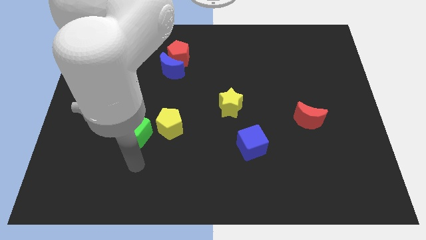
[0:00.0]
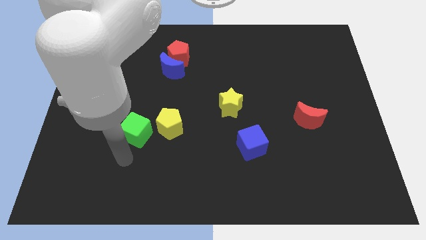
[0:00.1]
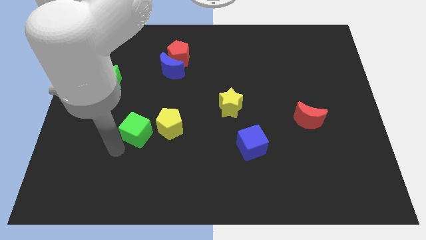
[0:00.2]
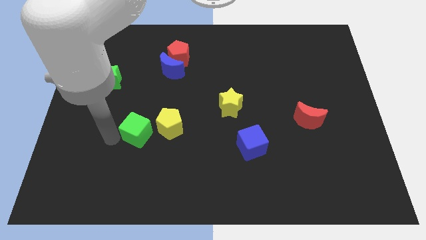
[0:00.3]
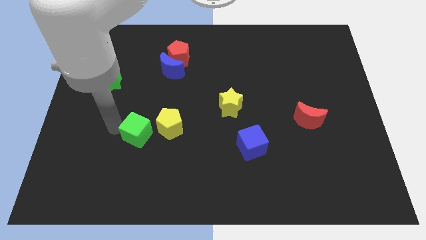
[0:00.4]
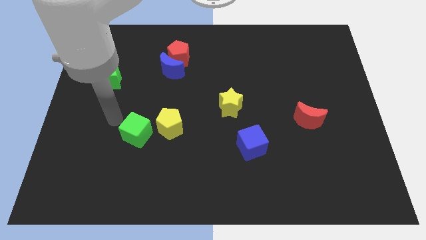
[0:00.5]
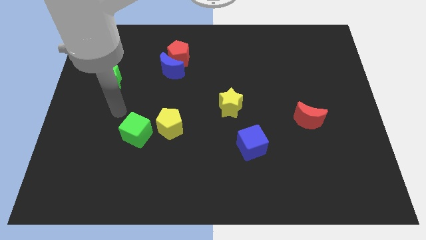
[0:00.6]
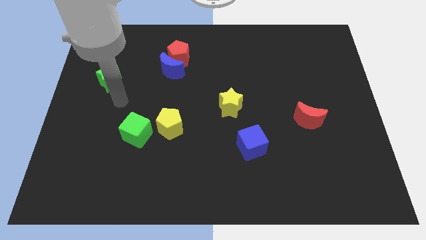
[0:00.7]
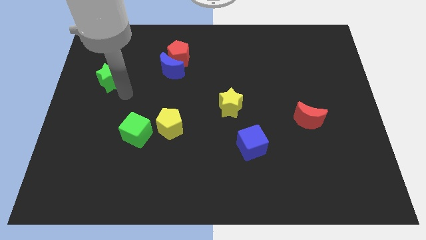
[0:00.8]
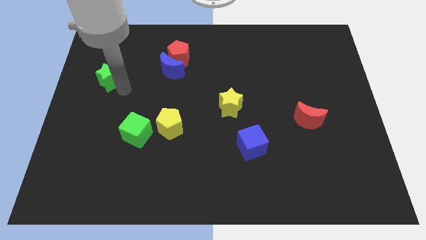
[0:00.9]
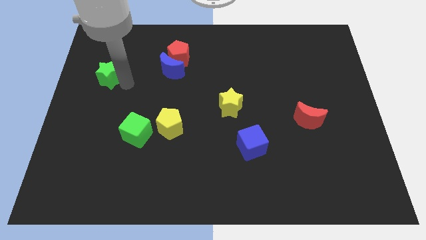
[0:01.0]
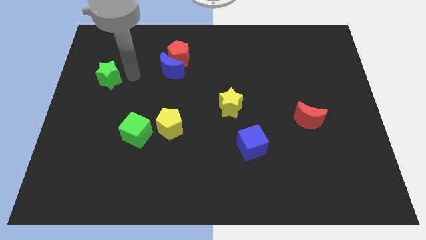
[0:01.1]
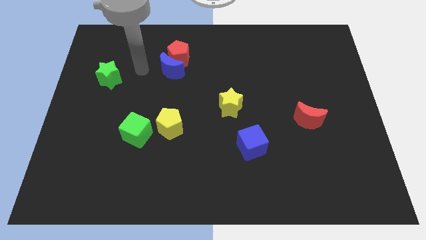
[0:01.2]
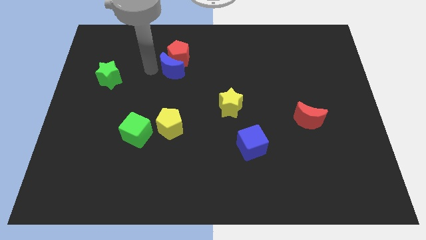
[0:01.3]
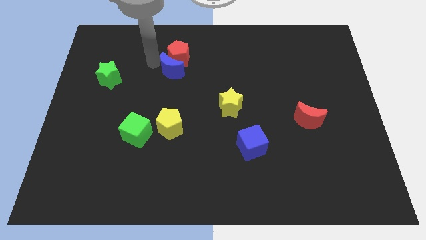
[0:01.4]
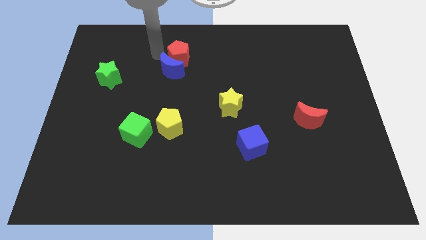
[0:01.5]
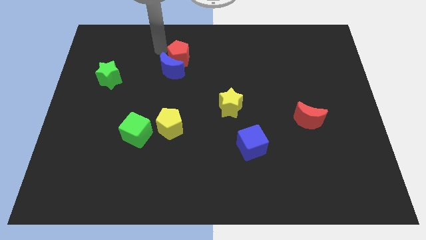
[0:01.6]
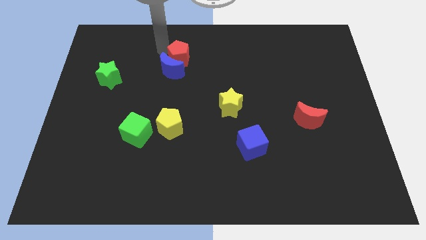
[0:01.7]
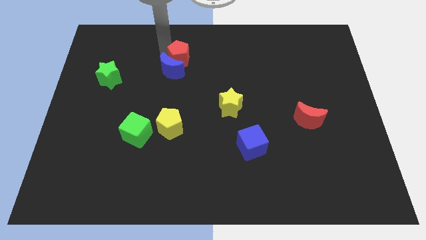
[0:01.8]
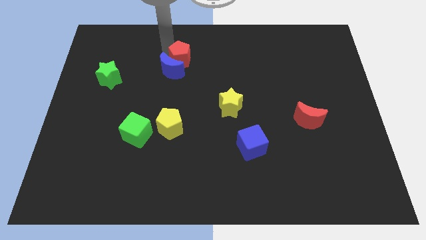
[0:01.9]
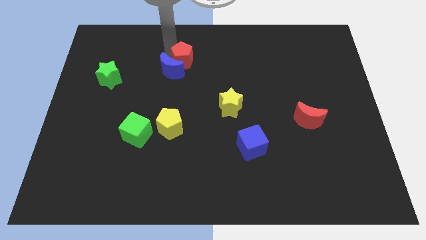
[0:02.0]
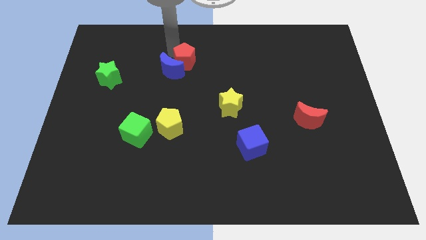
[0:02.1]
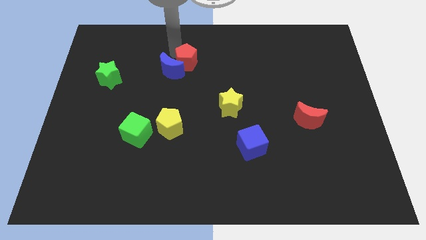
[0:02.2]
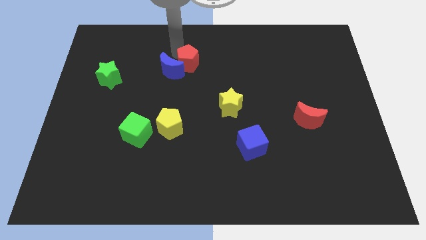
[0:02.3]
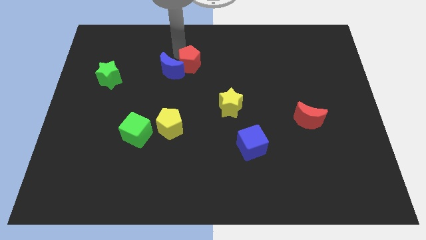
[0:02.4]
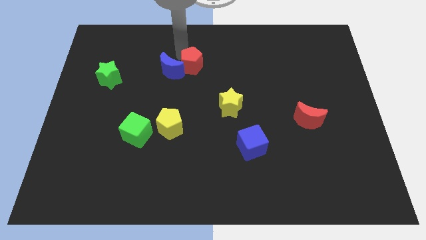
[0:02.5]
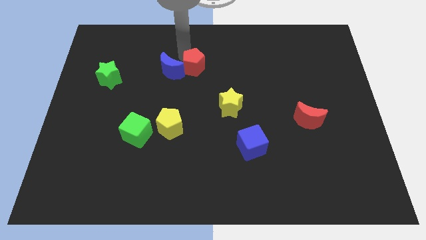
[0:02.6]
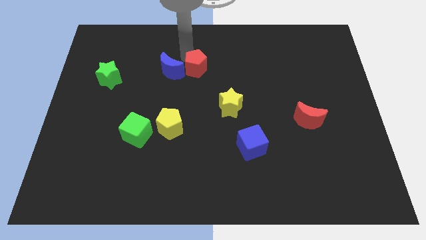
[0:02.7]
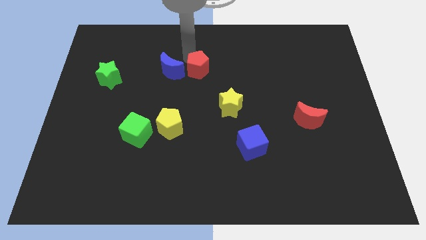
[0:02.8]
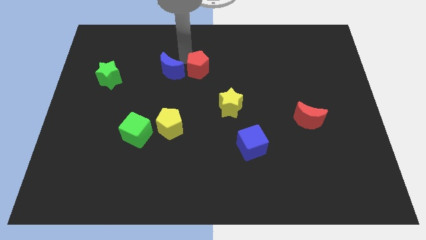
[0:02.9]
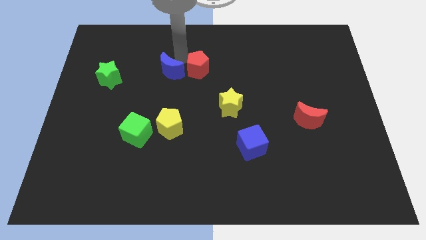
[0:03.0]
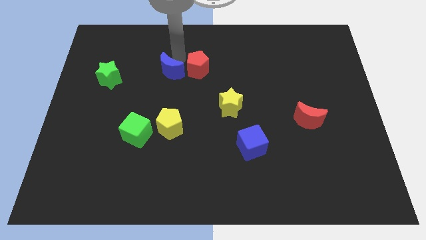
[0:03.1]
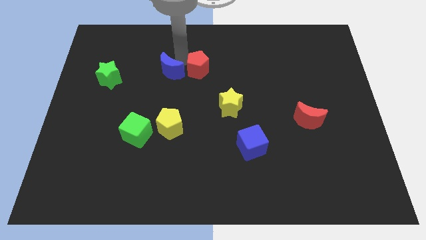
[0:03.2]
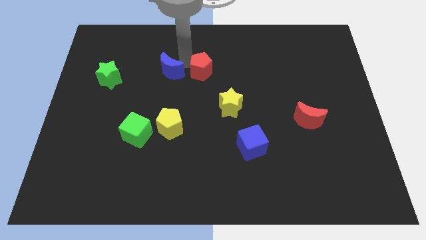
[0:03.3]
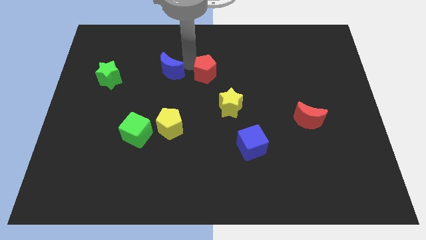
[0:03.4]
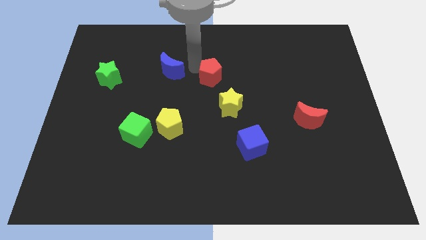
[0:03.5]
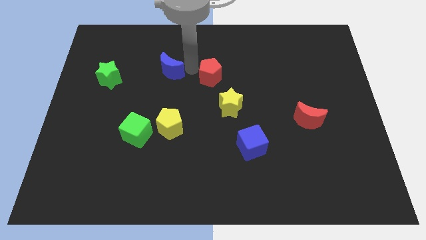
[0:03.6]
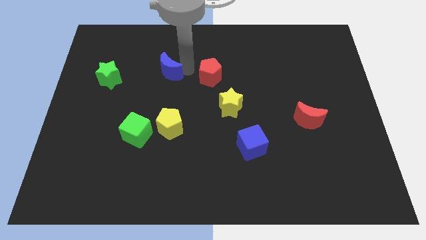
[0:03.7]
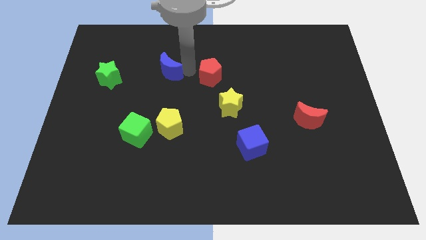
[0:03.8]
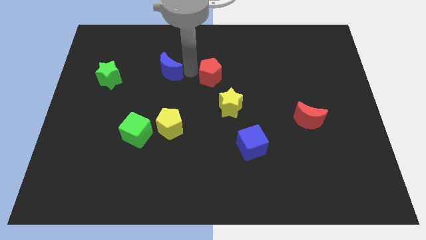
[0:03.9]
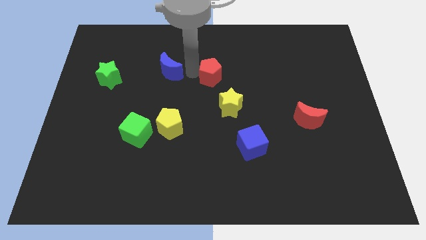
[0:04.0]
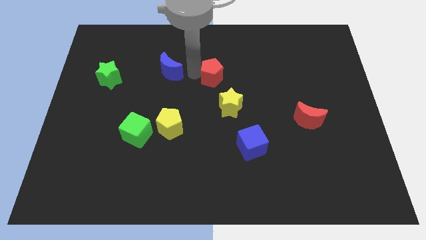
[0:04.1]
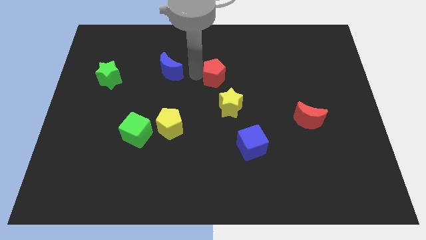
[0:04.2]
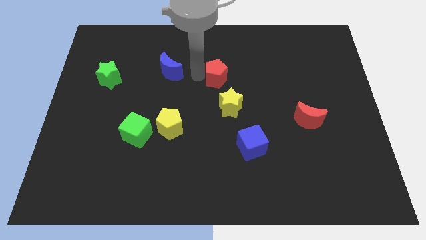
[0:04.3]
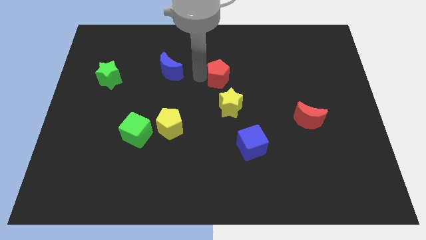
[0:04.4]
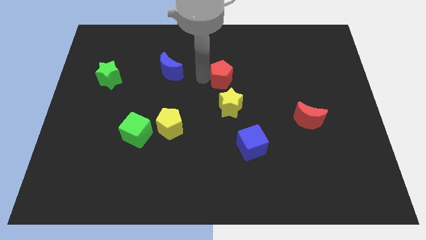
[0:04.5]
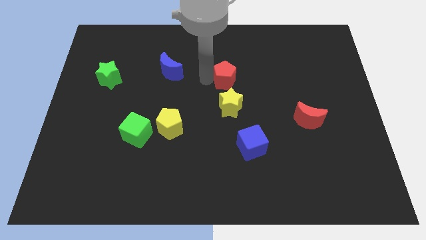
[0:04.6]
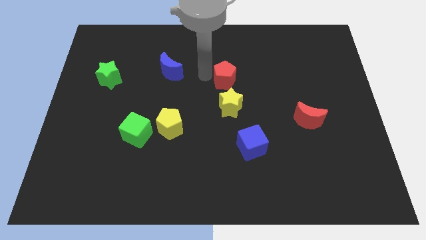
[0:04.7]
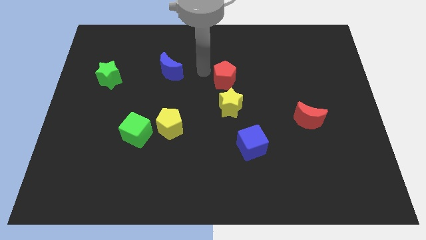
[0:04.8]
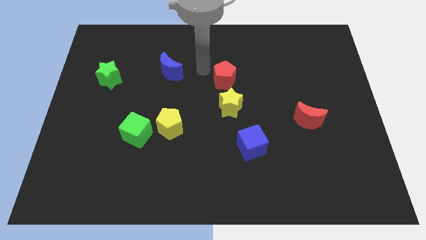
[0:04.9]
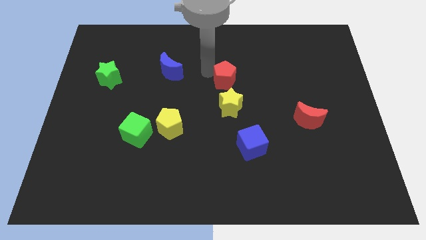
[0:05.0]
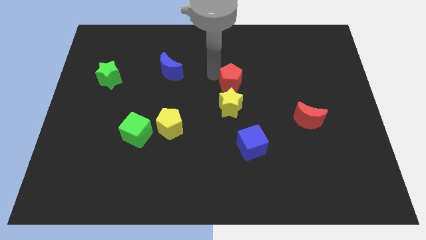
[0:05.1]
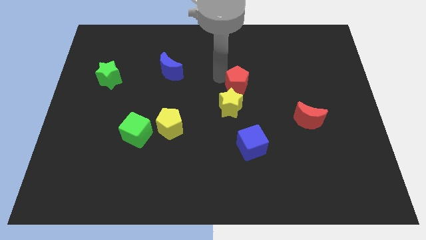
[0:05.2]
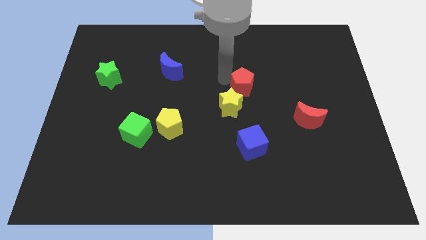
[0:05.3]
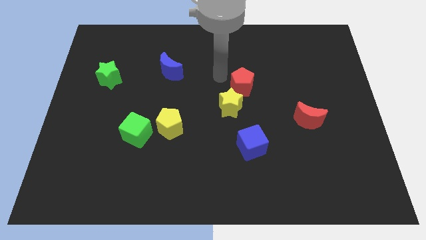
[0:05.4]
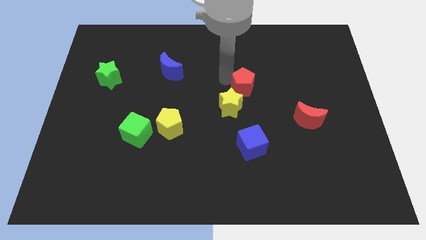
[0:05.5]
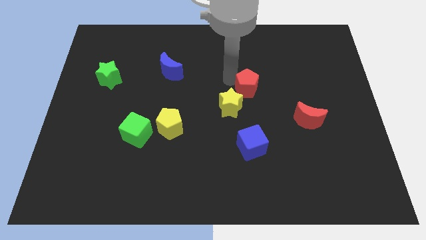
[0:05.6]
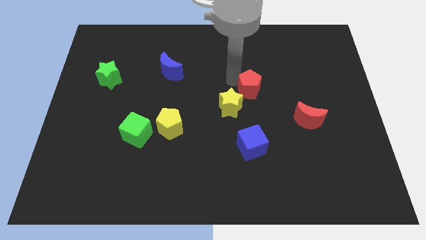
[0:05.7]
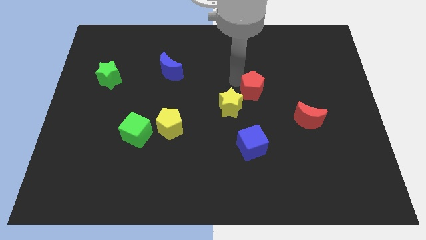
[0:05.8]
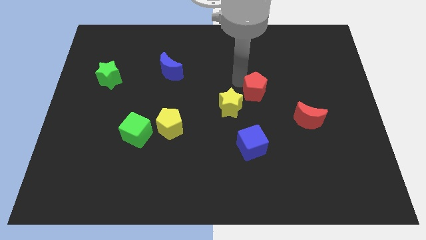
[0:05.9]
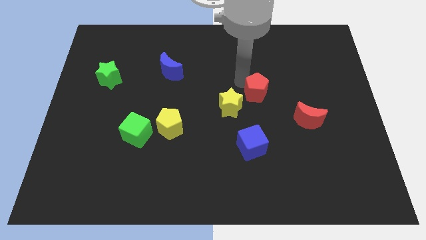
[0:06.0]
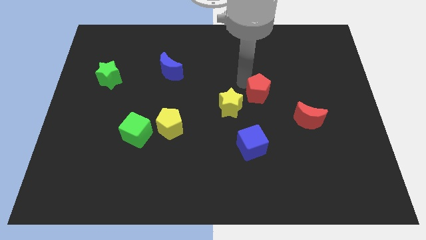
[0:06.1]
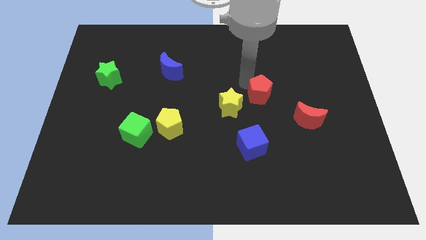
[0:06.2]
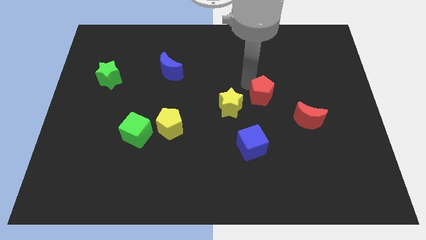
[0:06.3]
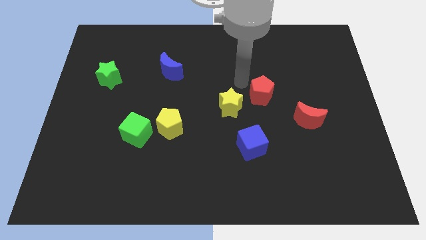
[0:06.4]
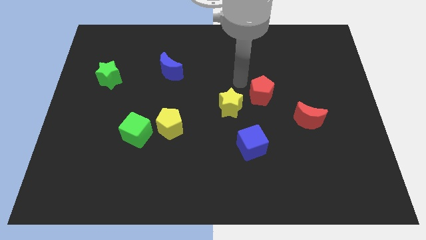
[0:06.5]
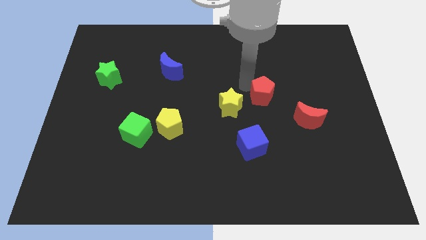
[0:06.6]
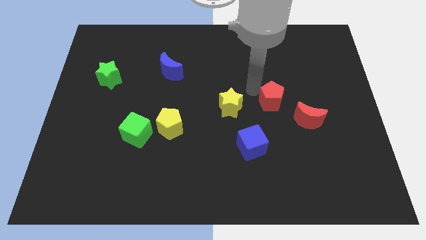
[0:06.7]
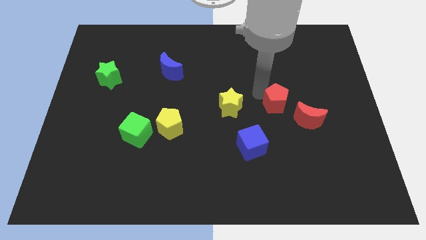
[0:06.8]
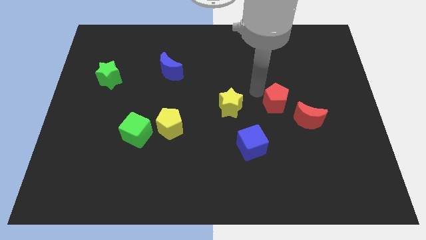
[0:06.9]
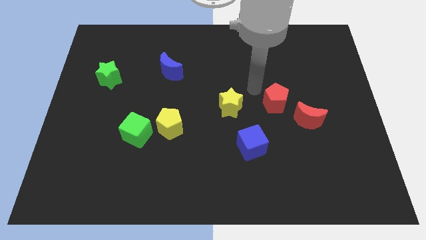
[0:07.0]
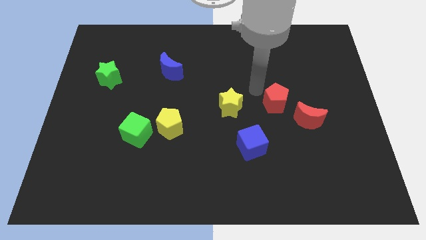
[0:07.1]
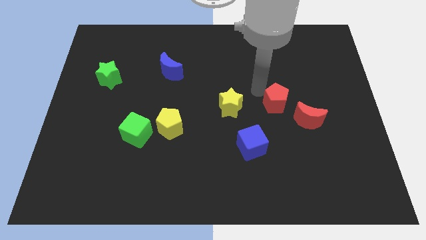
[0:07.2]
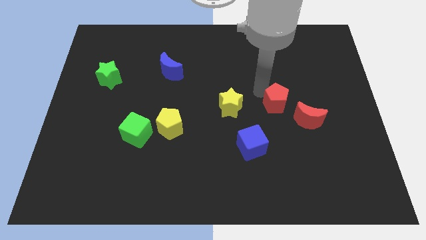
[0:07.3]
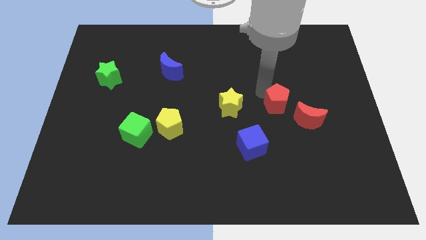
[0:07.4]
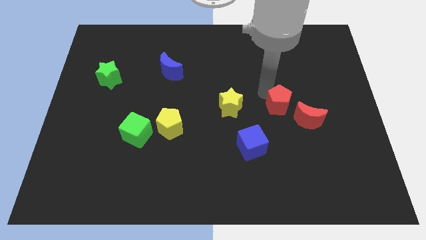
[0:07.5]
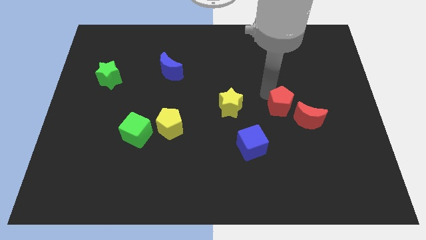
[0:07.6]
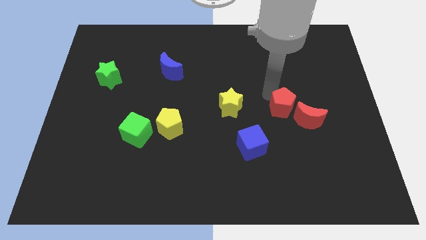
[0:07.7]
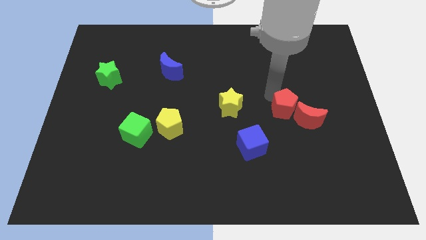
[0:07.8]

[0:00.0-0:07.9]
slide the red pentagon towards the red moon
